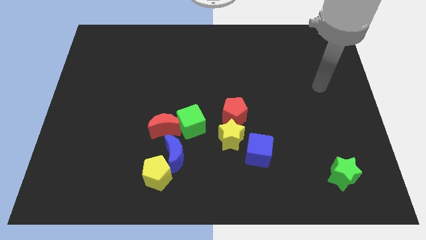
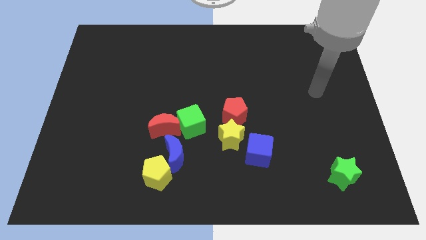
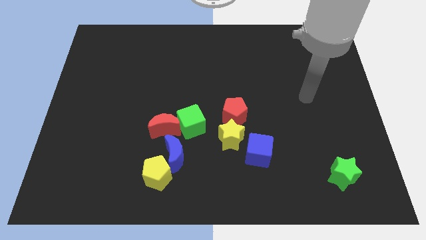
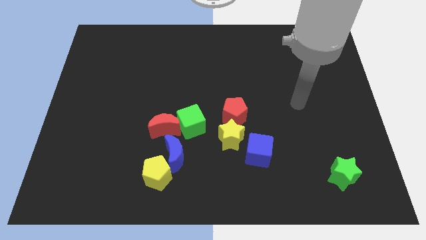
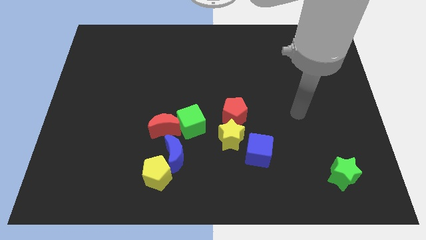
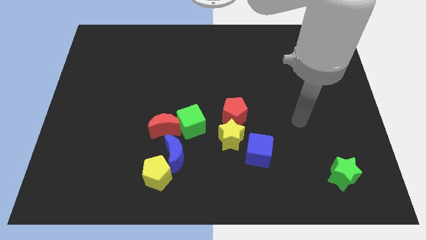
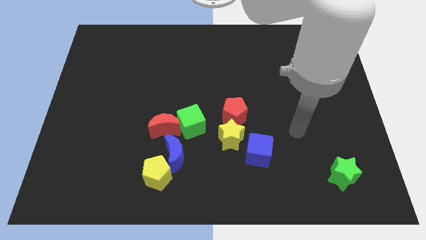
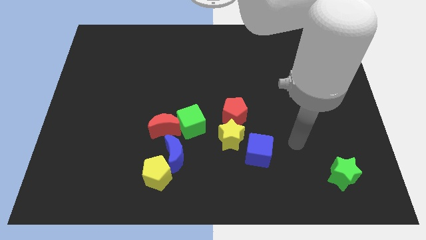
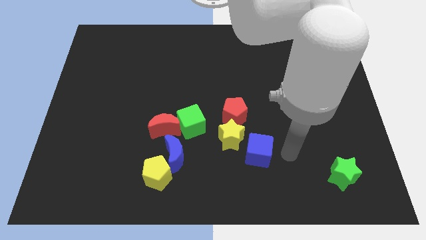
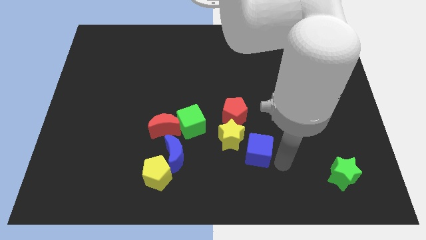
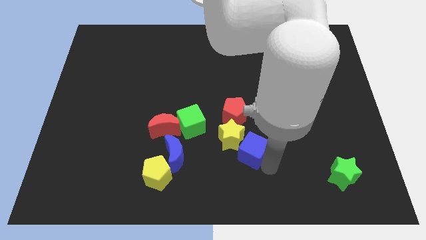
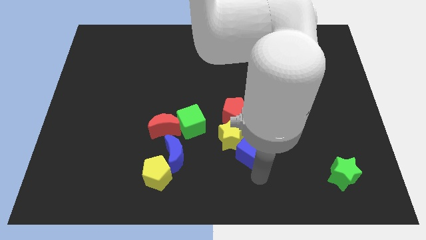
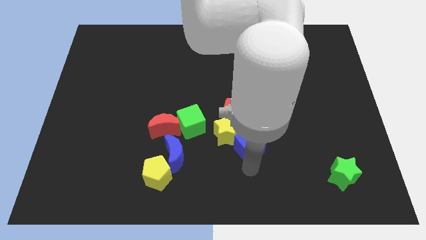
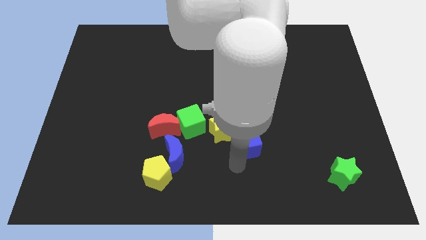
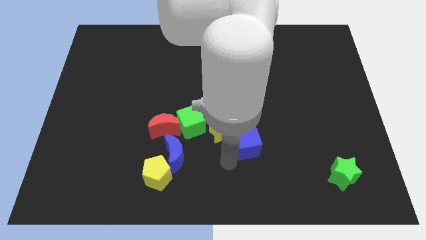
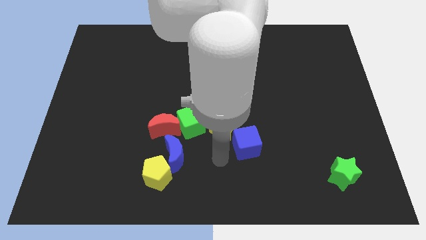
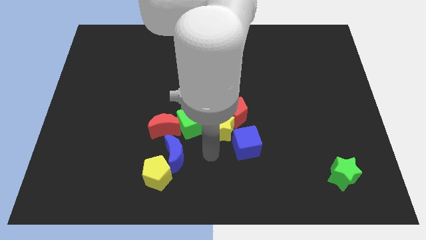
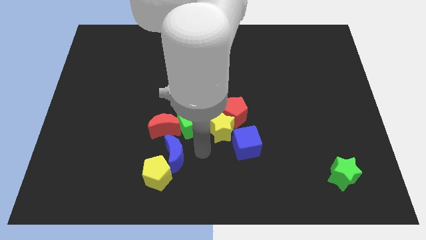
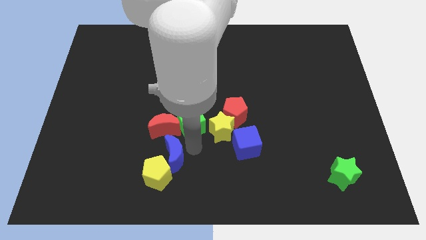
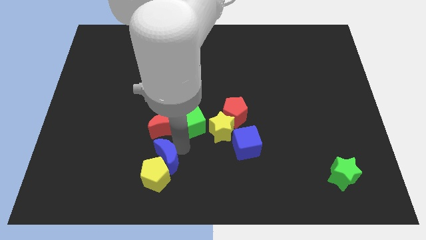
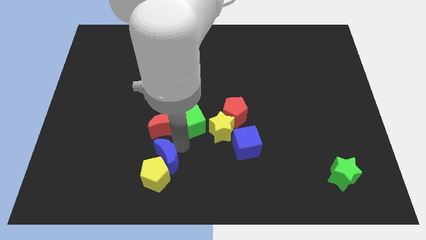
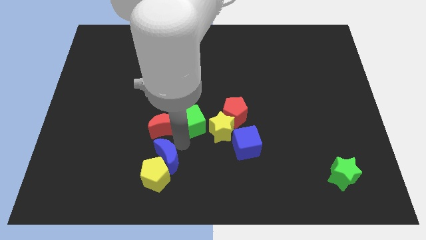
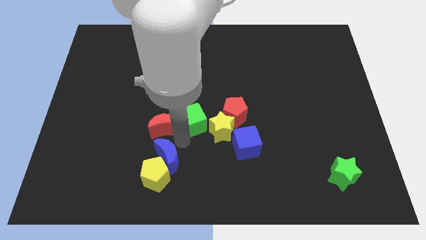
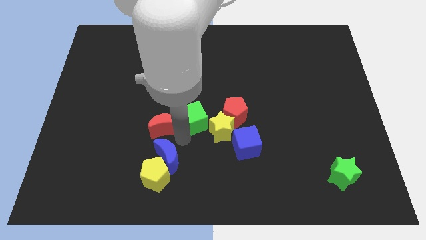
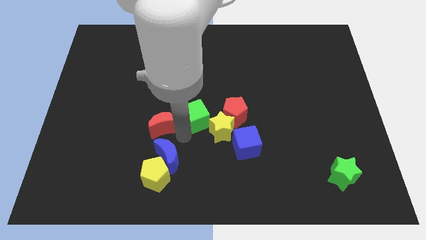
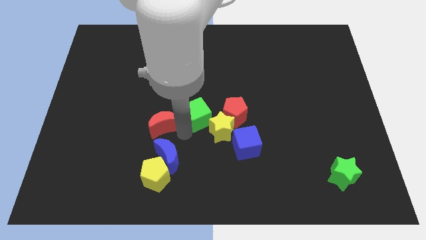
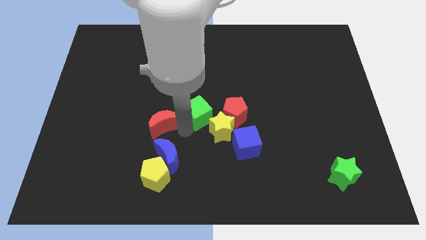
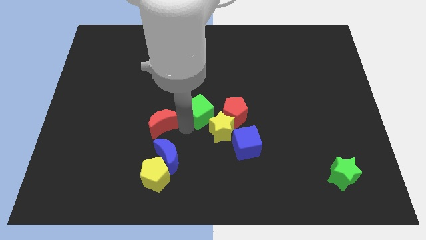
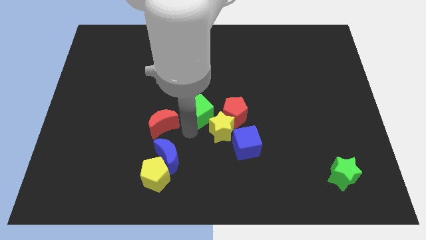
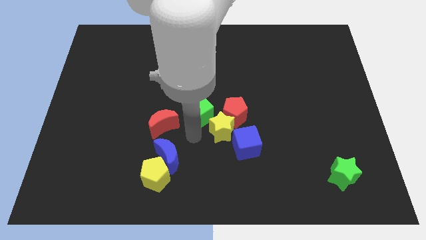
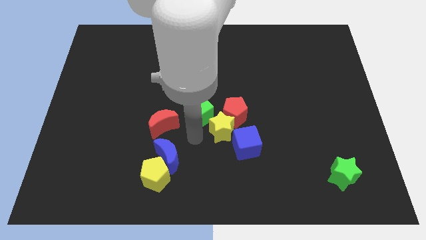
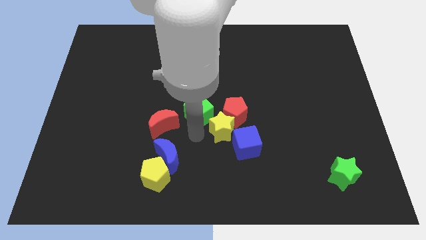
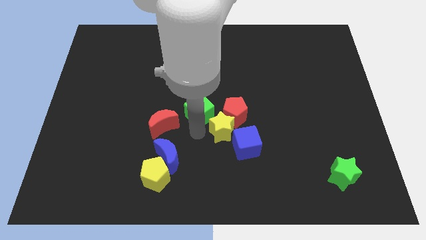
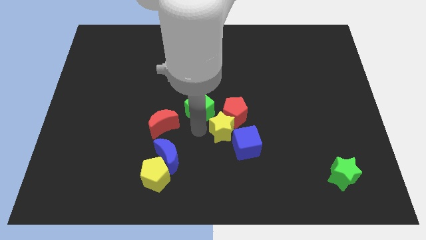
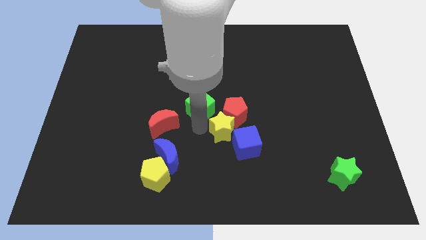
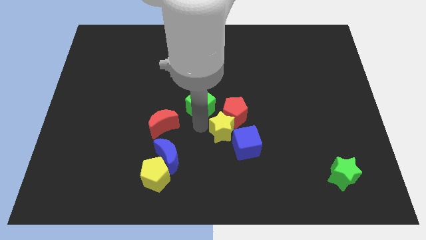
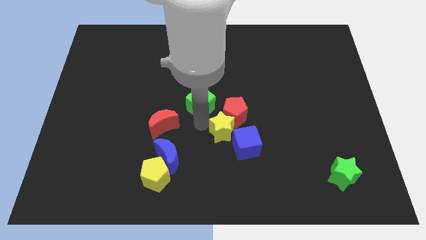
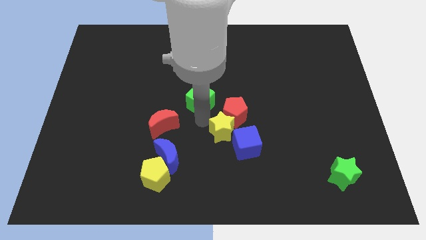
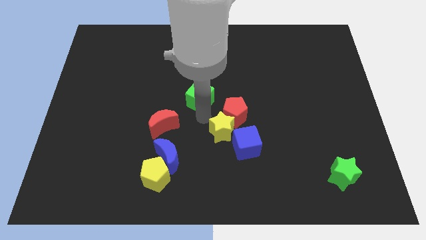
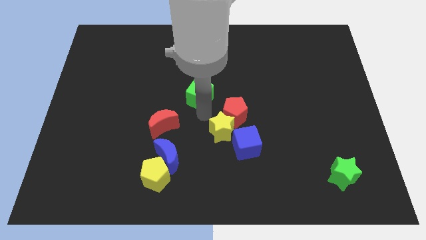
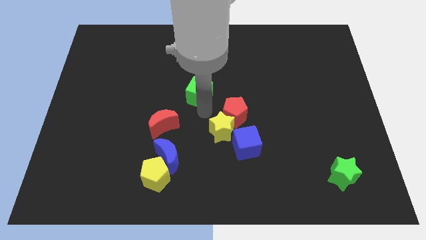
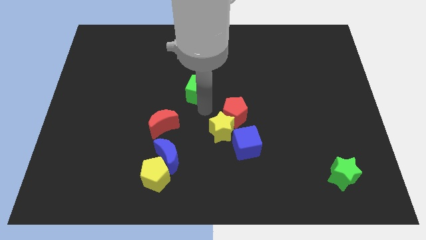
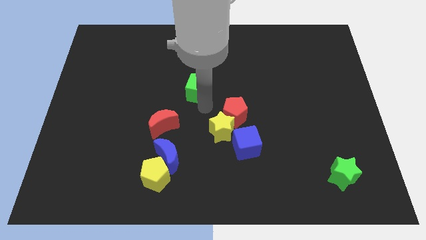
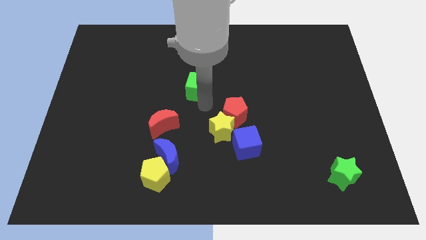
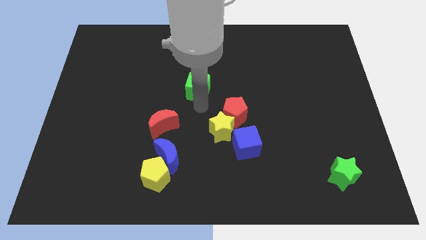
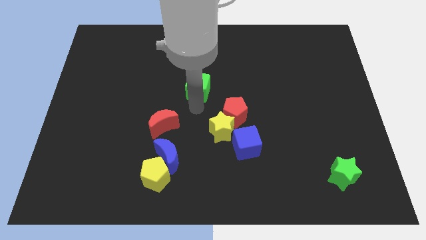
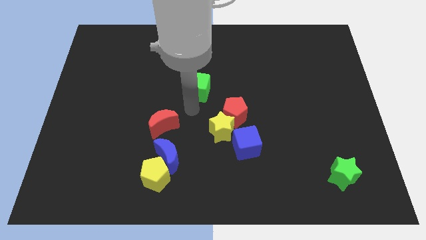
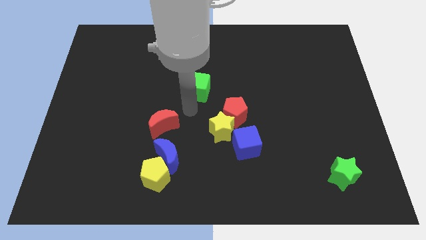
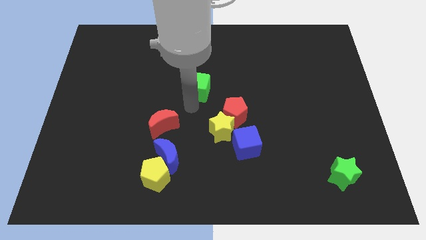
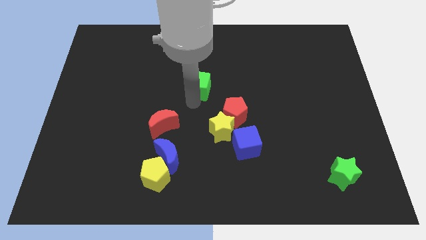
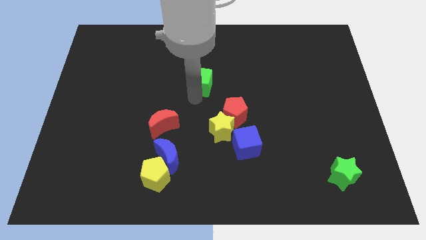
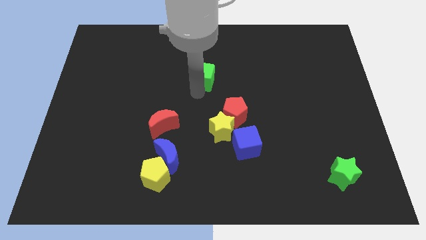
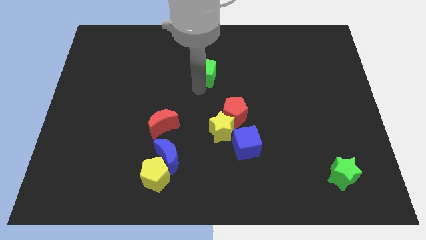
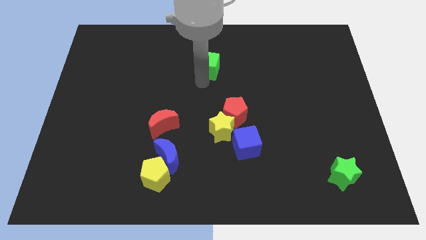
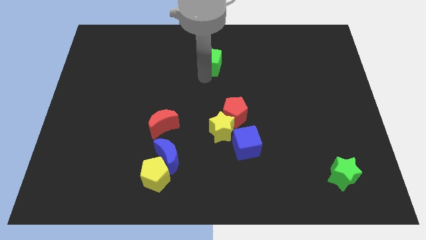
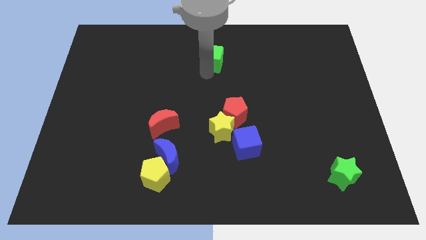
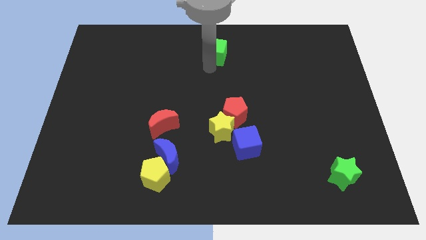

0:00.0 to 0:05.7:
push the green cube to the towards your base
